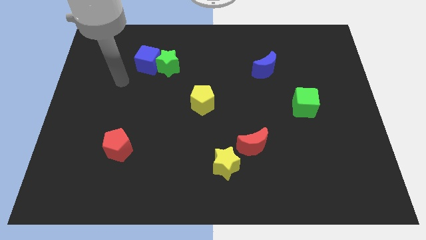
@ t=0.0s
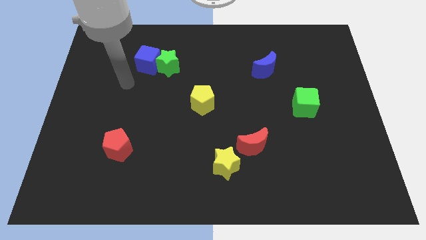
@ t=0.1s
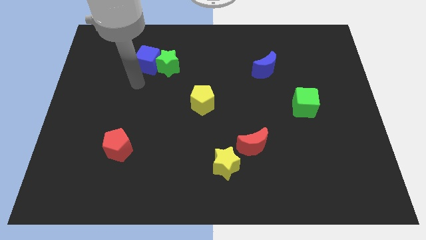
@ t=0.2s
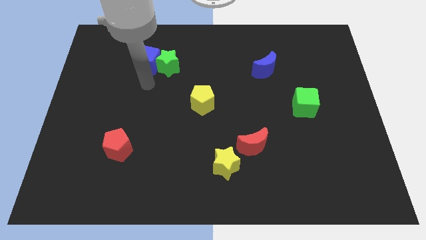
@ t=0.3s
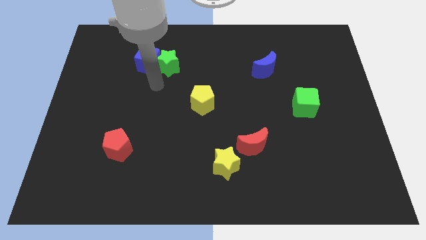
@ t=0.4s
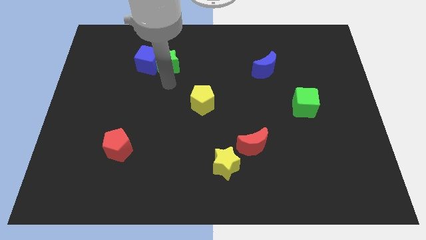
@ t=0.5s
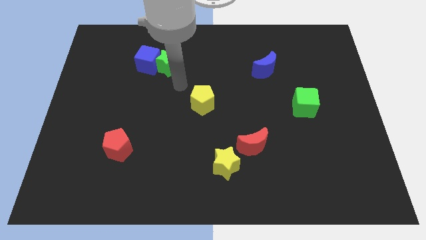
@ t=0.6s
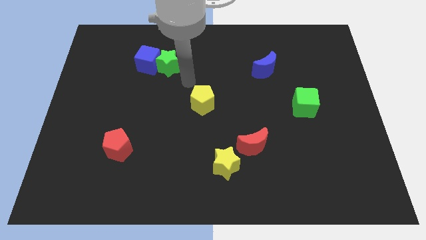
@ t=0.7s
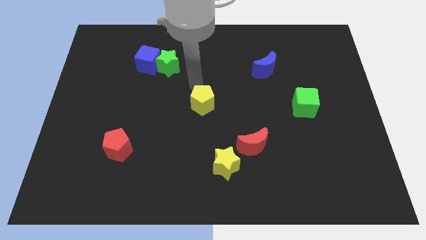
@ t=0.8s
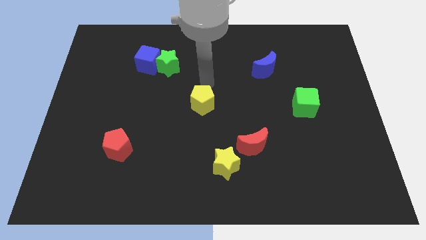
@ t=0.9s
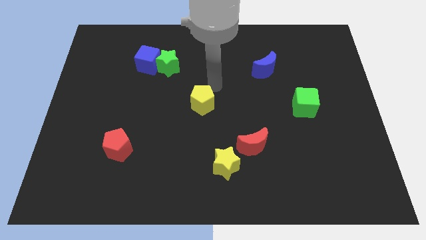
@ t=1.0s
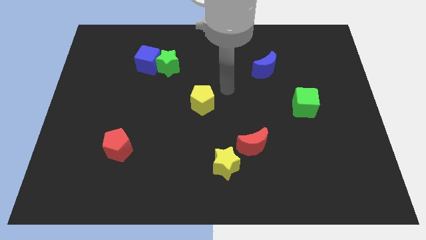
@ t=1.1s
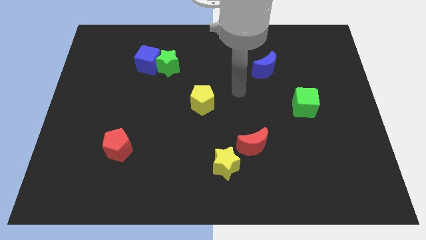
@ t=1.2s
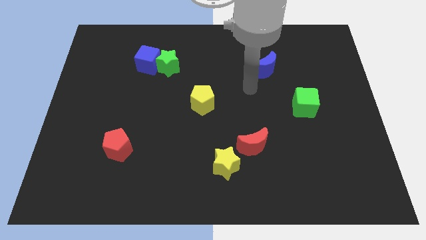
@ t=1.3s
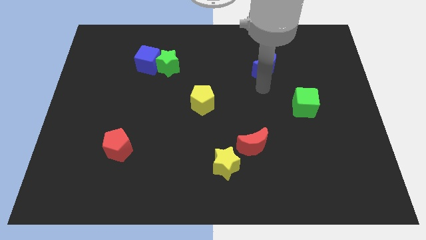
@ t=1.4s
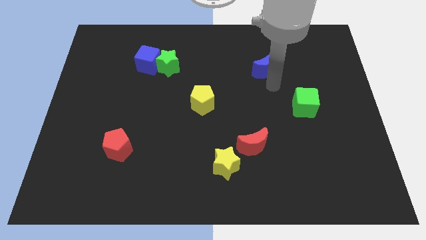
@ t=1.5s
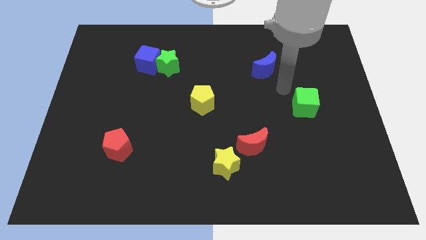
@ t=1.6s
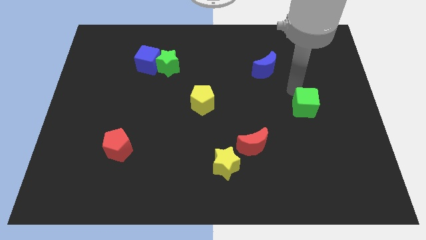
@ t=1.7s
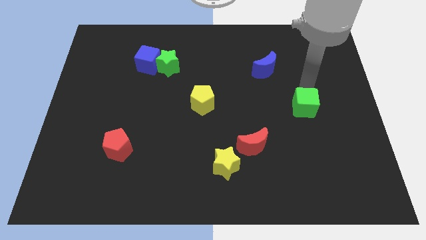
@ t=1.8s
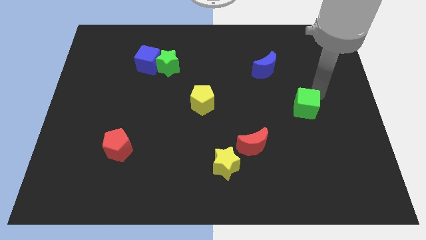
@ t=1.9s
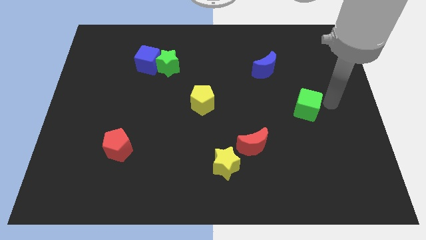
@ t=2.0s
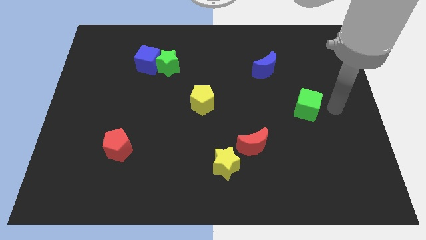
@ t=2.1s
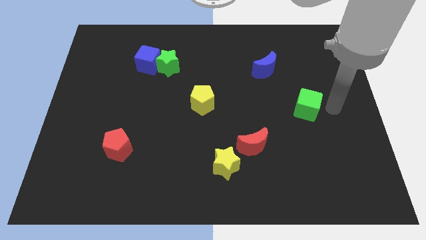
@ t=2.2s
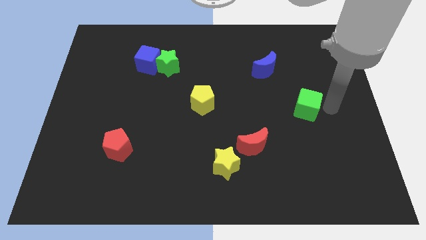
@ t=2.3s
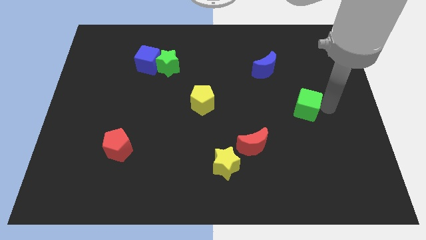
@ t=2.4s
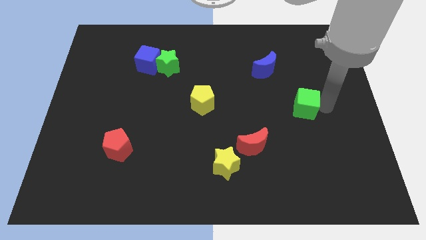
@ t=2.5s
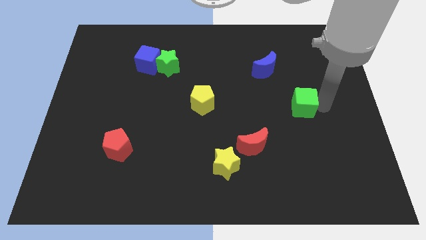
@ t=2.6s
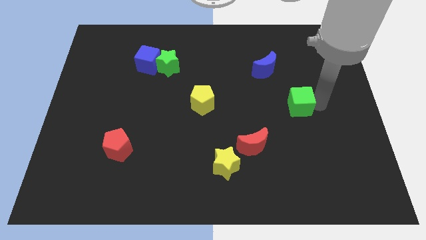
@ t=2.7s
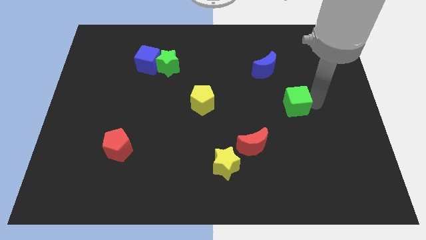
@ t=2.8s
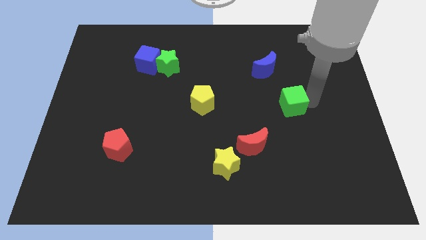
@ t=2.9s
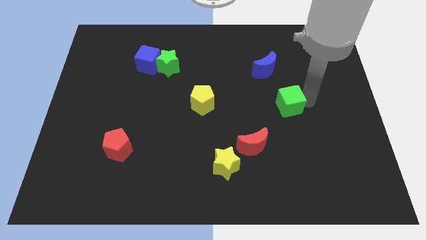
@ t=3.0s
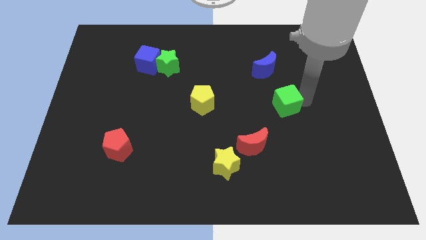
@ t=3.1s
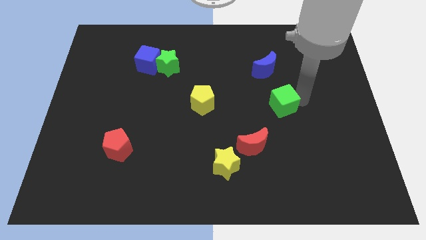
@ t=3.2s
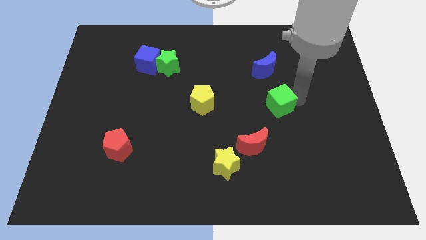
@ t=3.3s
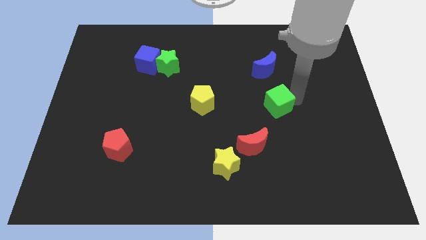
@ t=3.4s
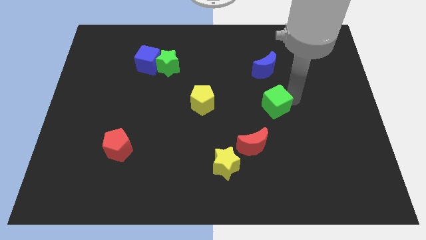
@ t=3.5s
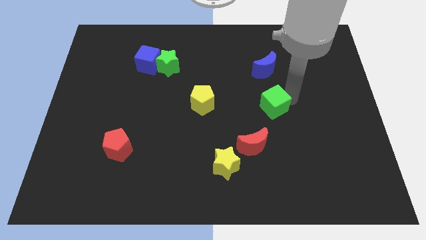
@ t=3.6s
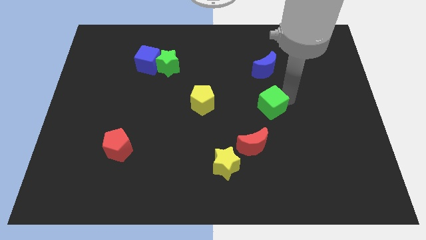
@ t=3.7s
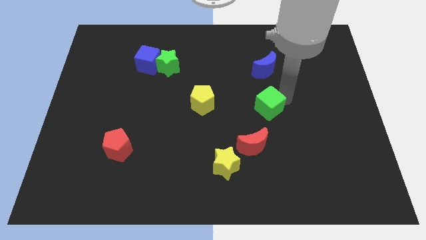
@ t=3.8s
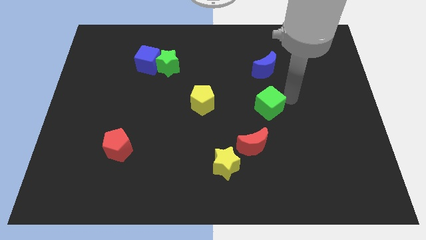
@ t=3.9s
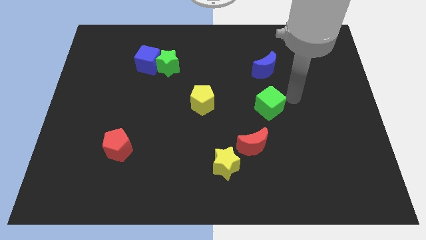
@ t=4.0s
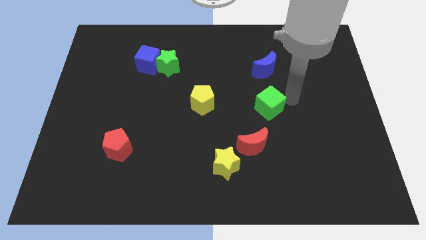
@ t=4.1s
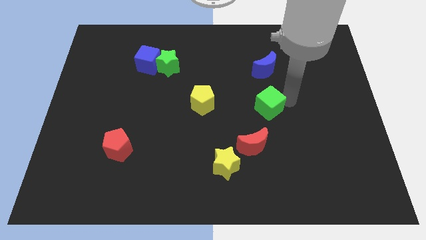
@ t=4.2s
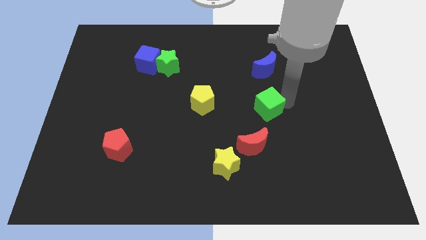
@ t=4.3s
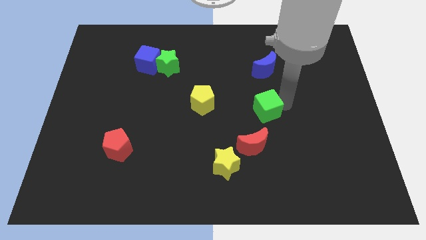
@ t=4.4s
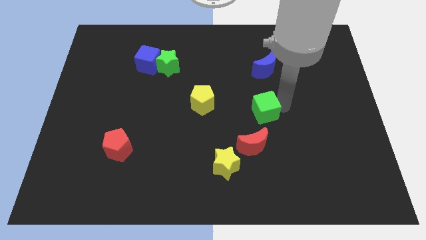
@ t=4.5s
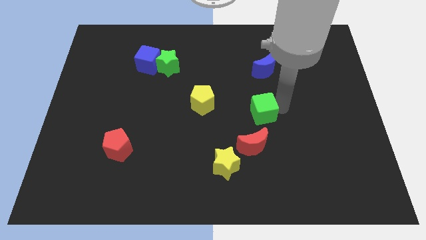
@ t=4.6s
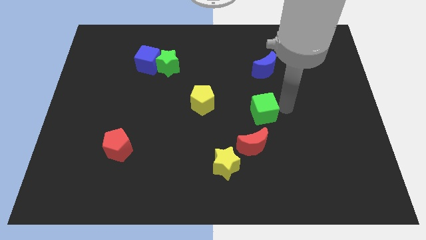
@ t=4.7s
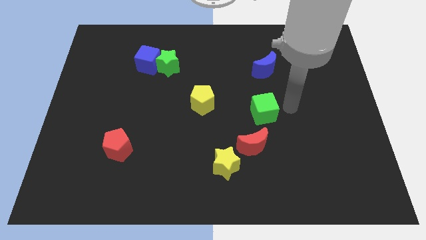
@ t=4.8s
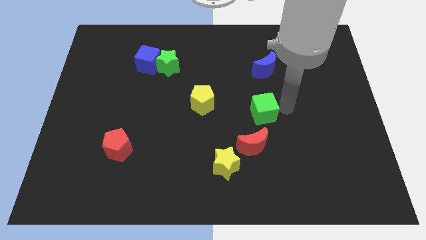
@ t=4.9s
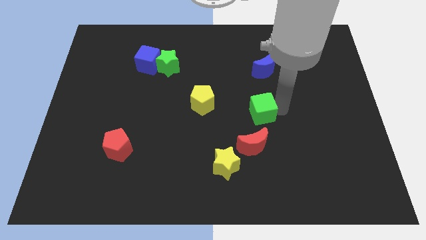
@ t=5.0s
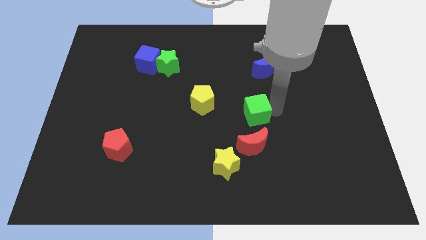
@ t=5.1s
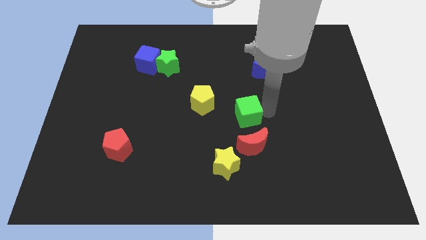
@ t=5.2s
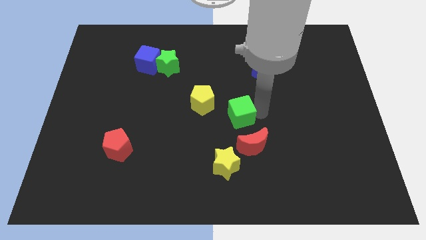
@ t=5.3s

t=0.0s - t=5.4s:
push the green cube to the bottom right side of the yellow pentagon

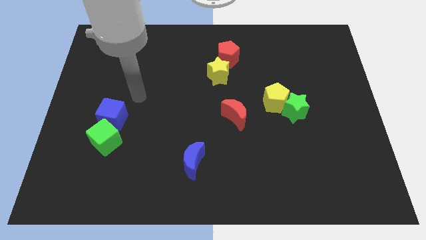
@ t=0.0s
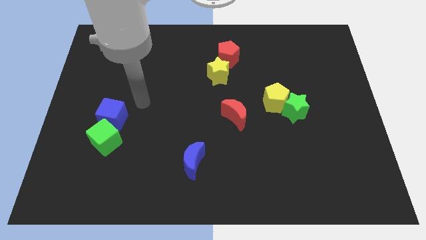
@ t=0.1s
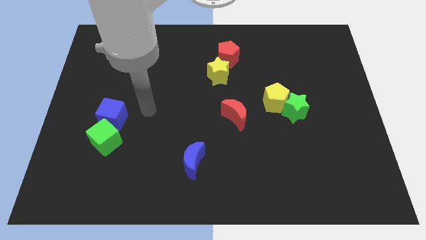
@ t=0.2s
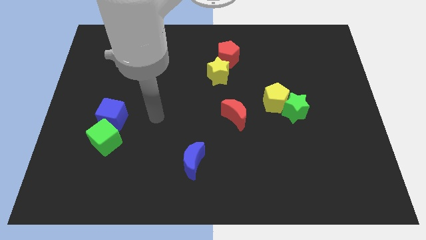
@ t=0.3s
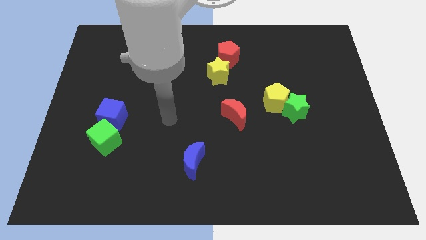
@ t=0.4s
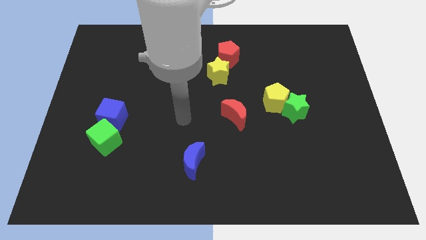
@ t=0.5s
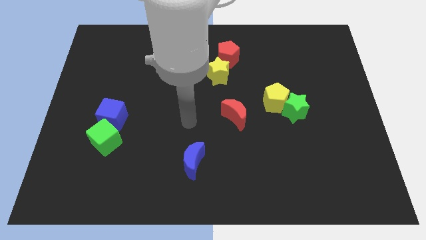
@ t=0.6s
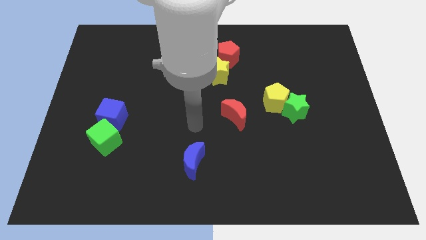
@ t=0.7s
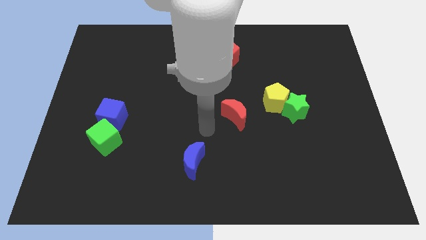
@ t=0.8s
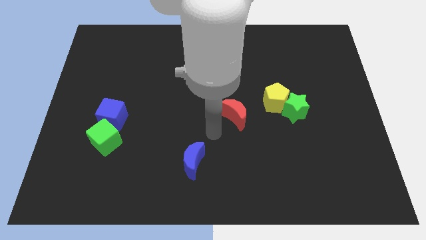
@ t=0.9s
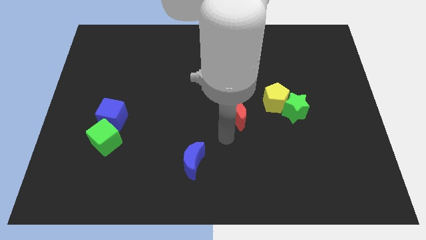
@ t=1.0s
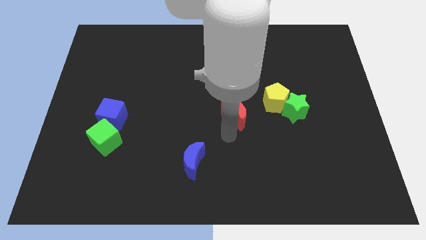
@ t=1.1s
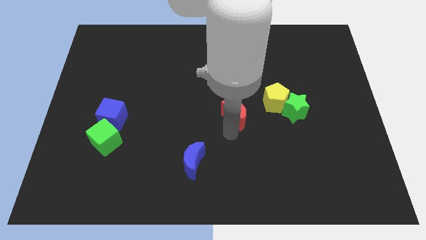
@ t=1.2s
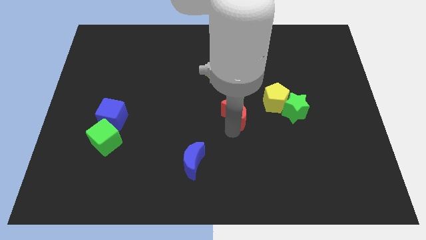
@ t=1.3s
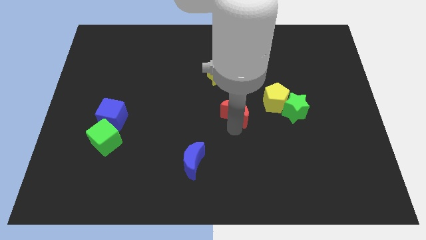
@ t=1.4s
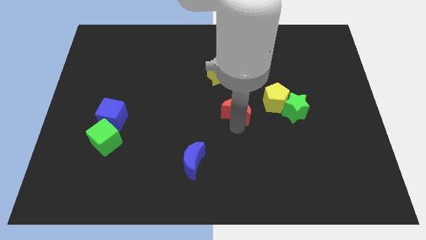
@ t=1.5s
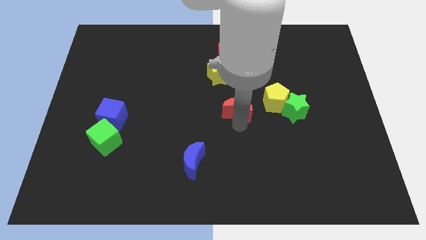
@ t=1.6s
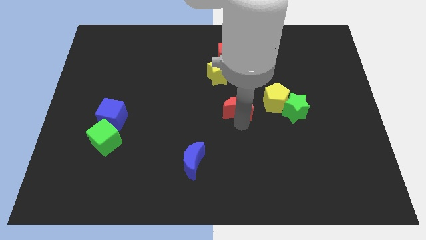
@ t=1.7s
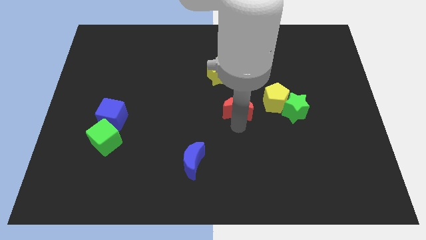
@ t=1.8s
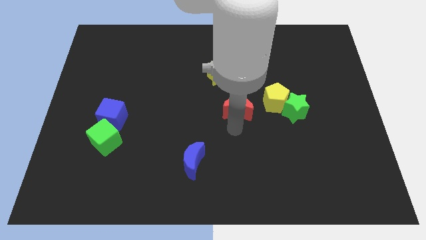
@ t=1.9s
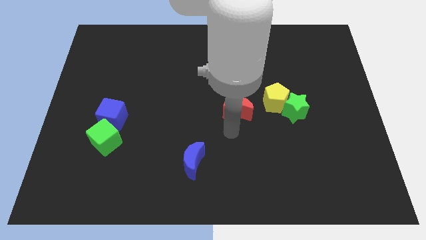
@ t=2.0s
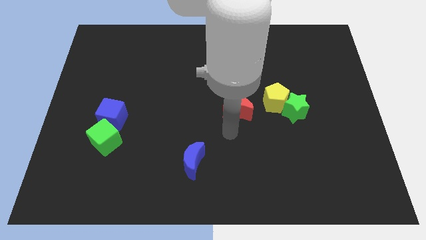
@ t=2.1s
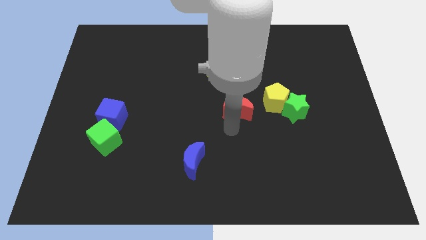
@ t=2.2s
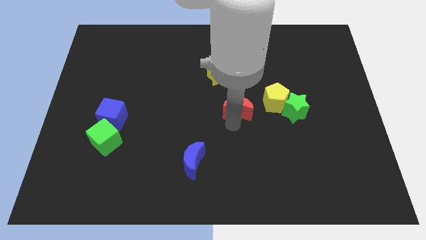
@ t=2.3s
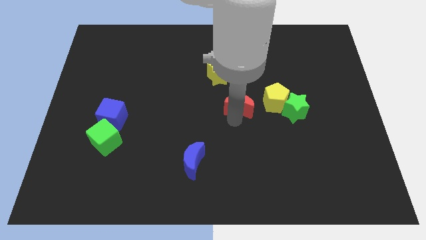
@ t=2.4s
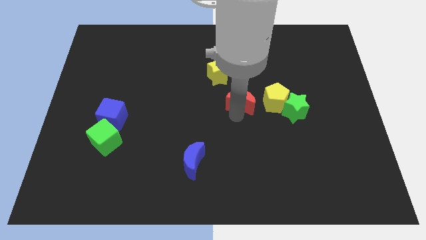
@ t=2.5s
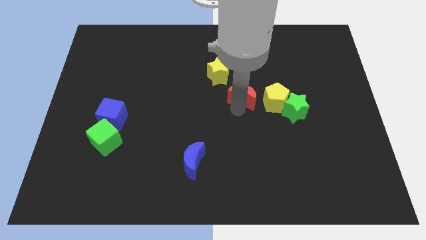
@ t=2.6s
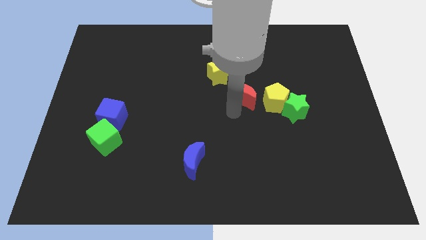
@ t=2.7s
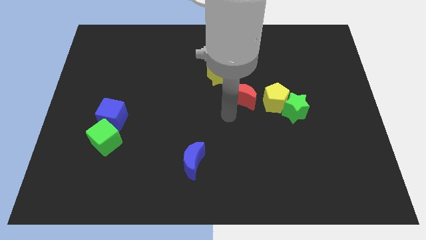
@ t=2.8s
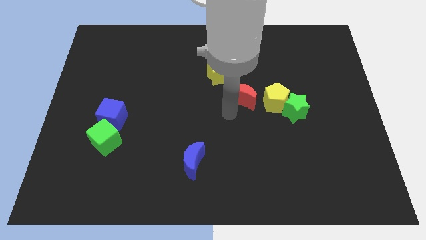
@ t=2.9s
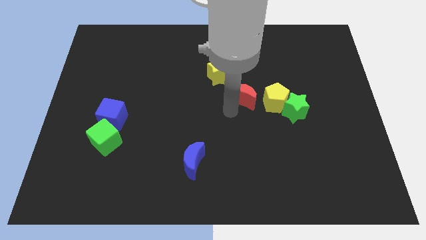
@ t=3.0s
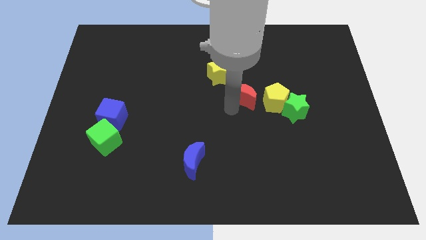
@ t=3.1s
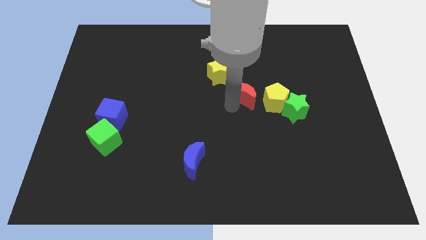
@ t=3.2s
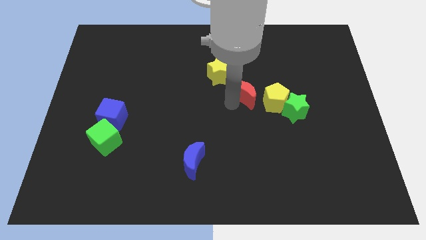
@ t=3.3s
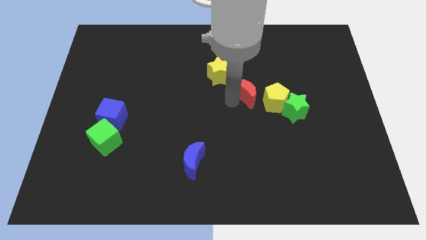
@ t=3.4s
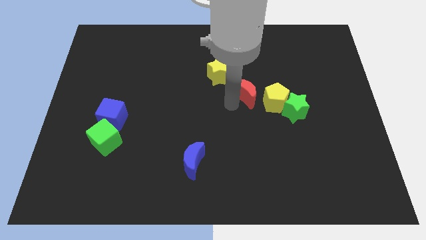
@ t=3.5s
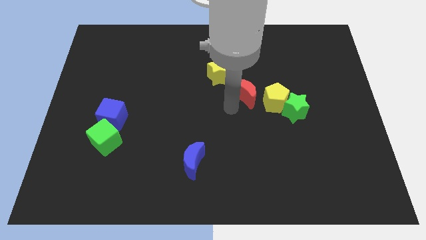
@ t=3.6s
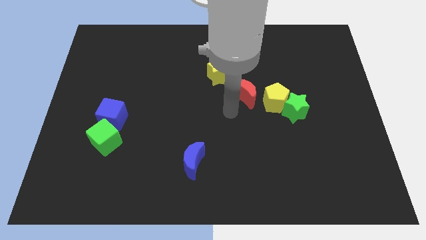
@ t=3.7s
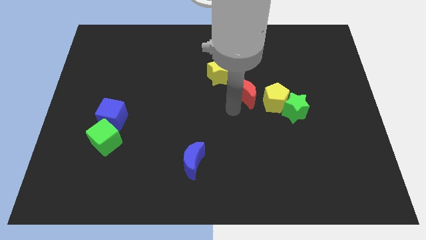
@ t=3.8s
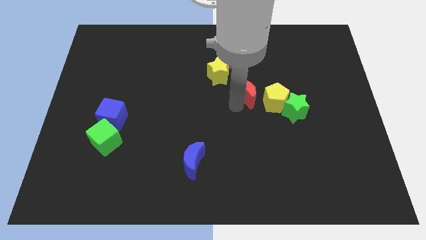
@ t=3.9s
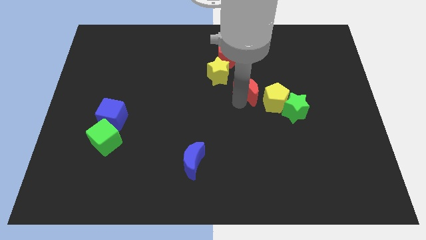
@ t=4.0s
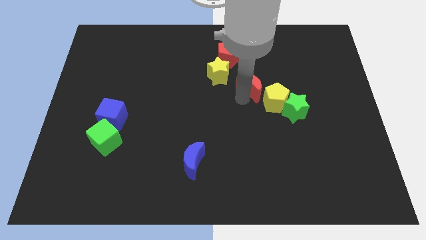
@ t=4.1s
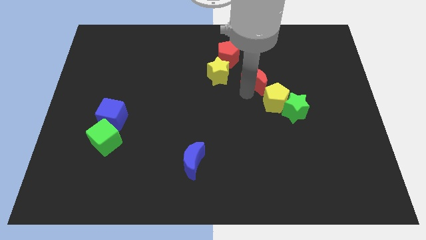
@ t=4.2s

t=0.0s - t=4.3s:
move the red moon above the yellow pentagon
